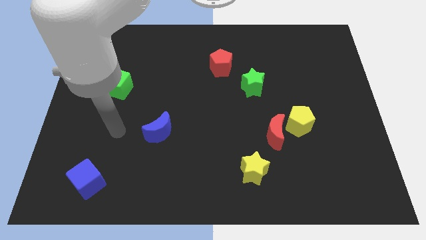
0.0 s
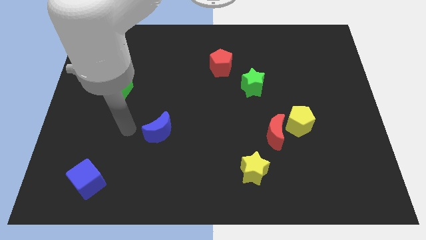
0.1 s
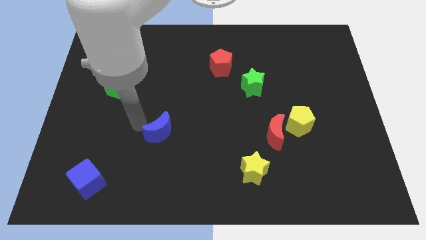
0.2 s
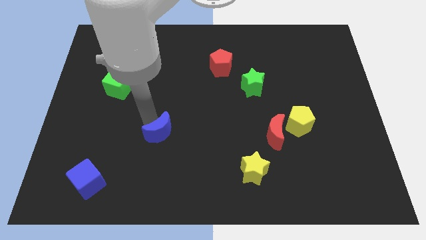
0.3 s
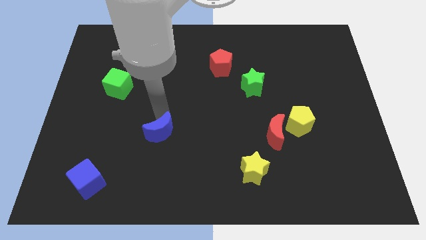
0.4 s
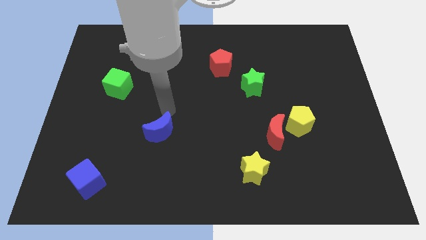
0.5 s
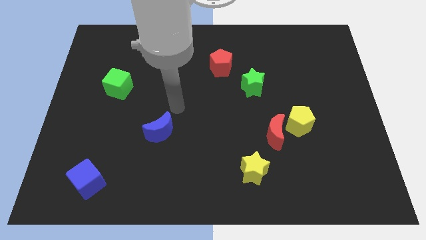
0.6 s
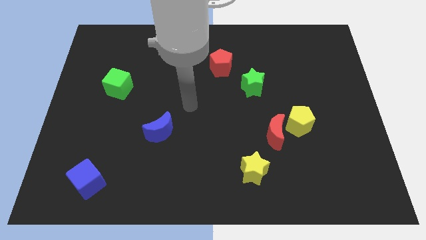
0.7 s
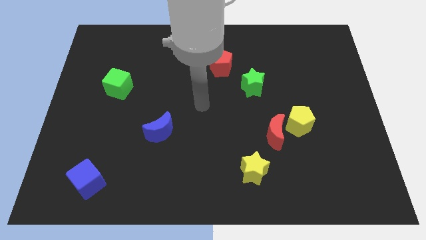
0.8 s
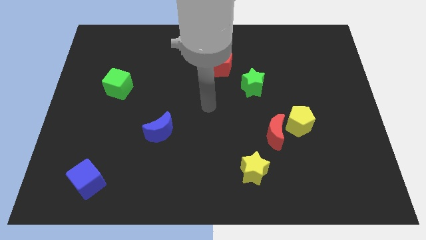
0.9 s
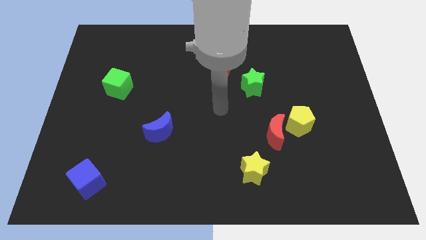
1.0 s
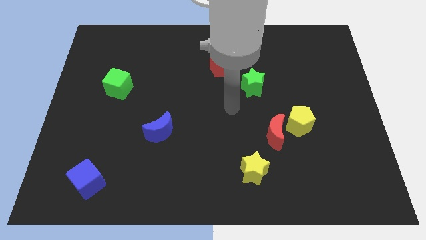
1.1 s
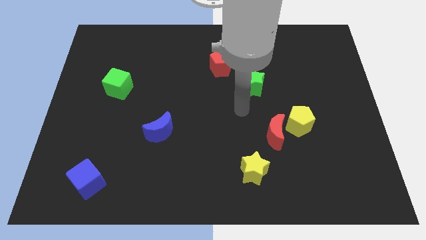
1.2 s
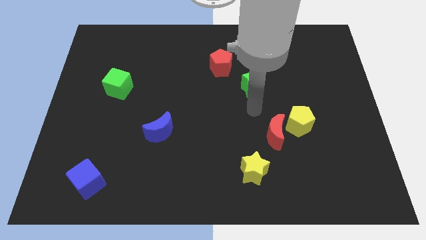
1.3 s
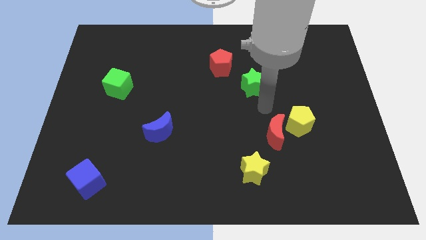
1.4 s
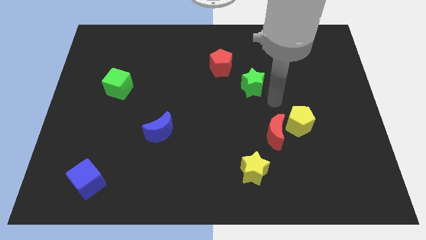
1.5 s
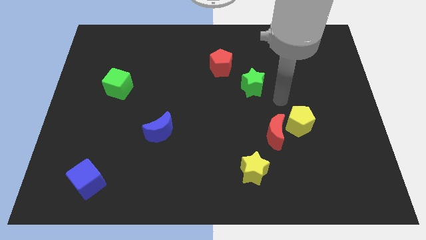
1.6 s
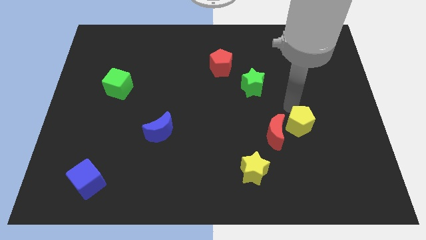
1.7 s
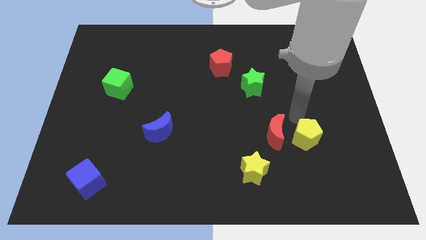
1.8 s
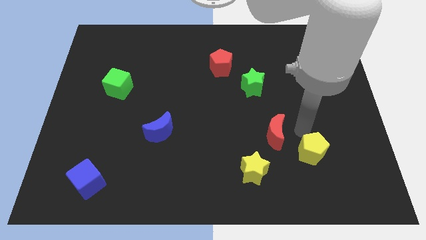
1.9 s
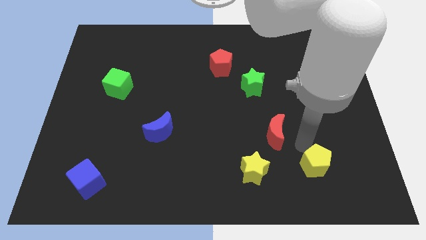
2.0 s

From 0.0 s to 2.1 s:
move the red moon away from the yellow pentagon

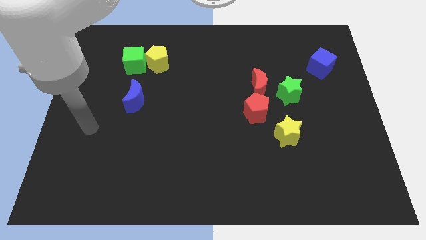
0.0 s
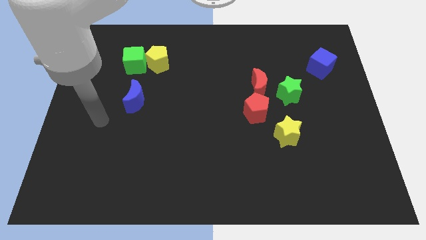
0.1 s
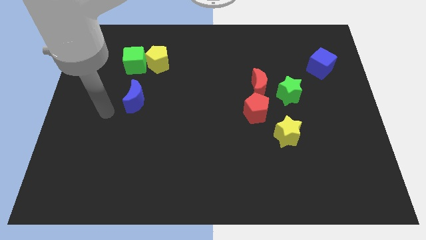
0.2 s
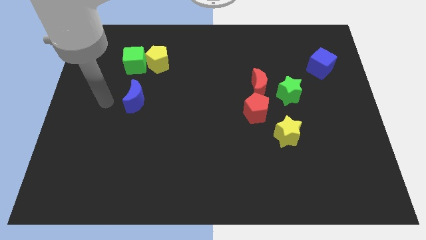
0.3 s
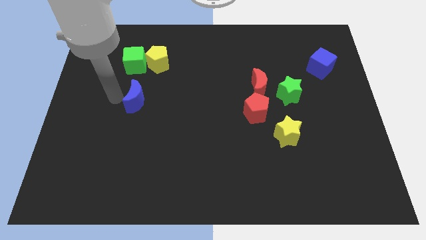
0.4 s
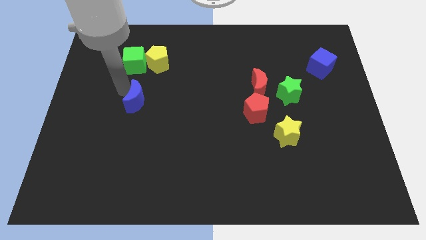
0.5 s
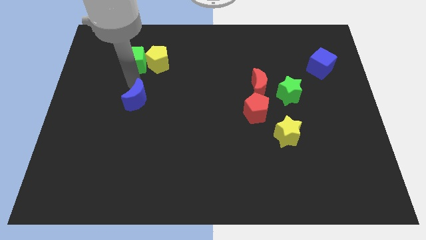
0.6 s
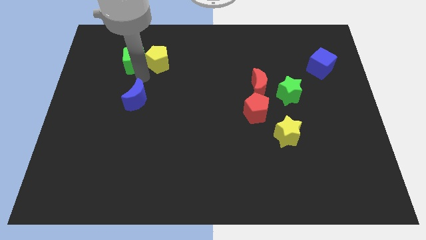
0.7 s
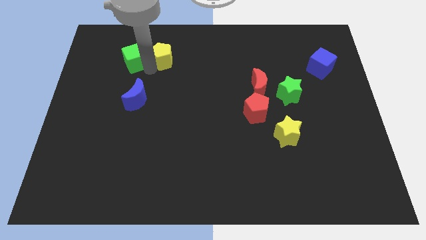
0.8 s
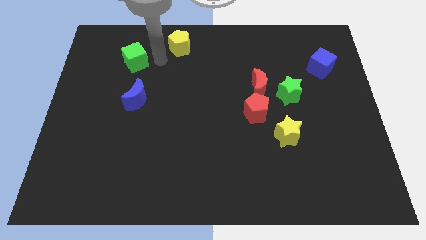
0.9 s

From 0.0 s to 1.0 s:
pull the green cube apart from the yellow pentagon

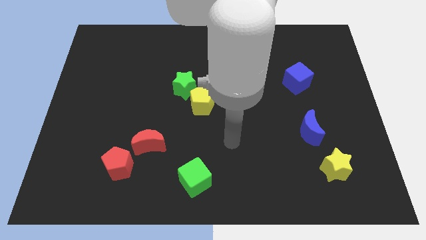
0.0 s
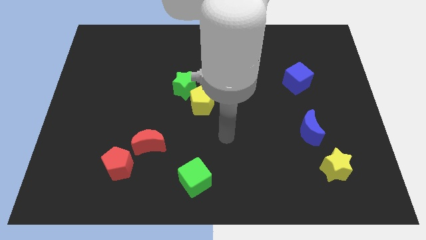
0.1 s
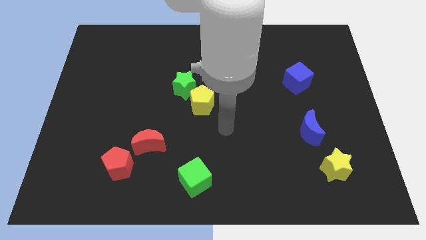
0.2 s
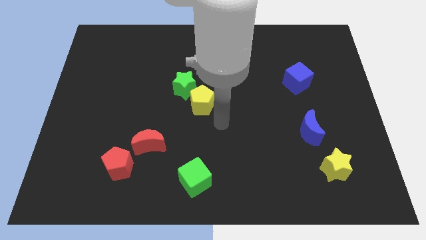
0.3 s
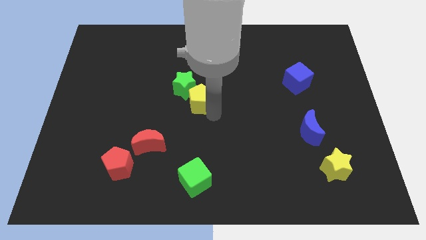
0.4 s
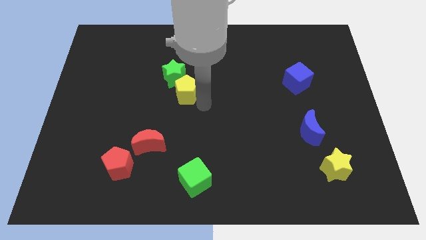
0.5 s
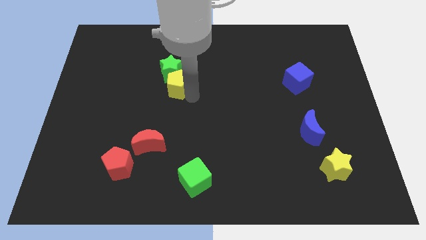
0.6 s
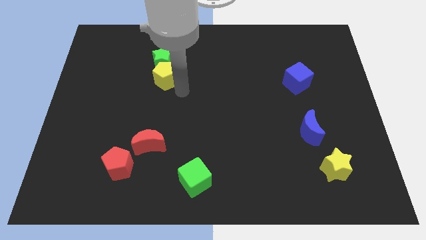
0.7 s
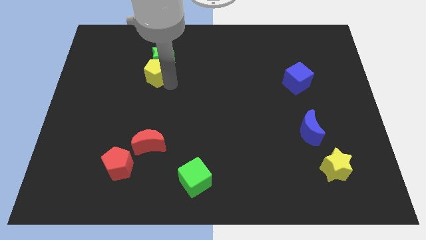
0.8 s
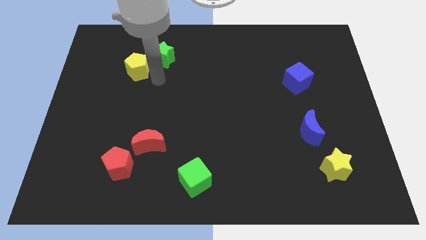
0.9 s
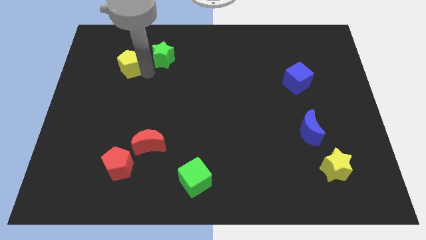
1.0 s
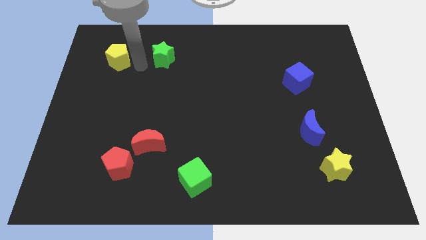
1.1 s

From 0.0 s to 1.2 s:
separate the green star from the yellow pentagon

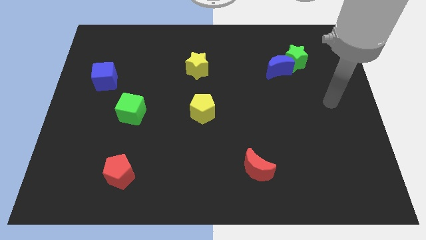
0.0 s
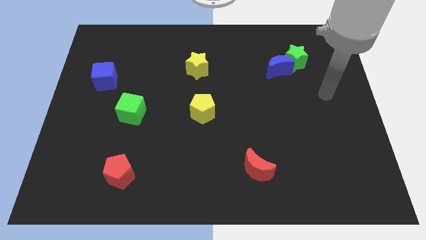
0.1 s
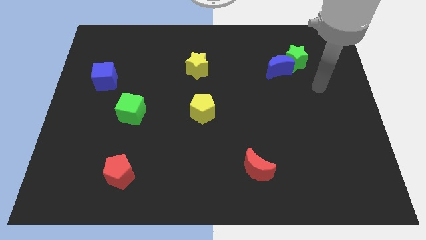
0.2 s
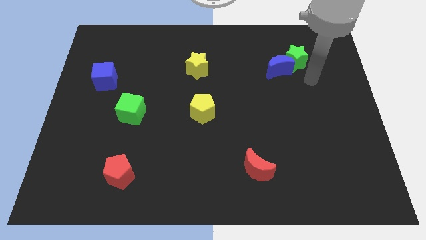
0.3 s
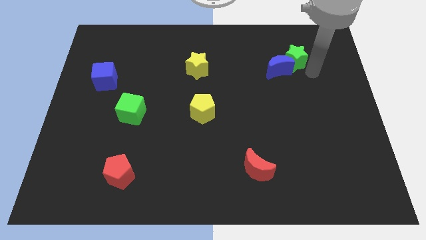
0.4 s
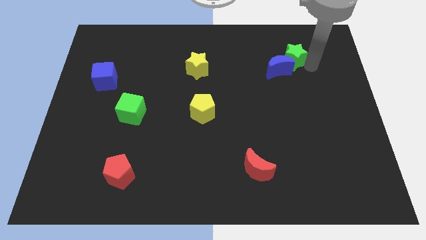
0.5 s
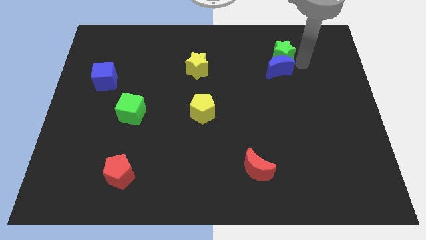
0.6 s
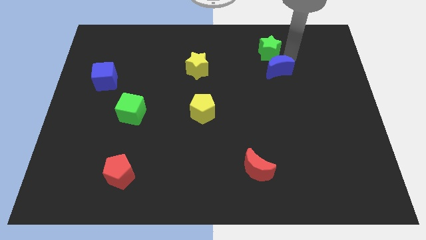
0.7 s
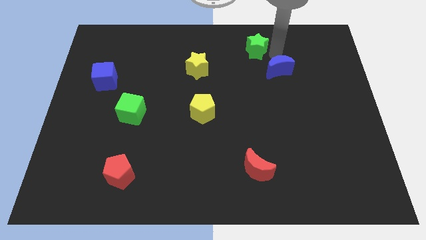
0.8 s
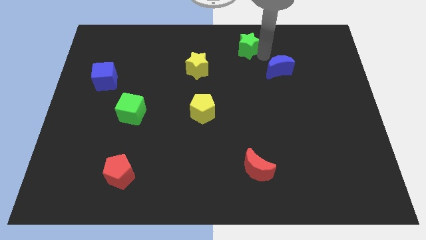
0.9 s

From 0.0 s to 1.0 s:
pull the blue moon apart from the green star

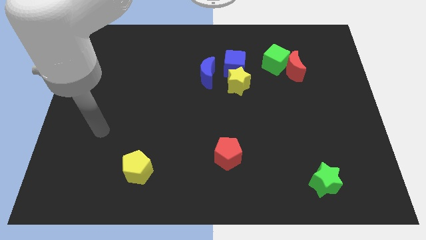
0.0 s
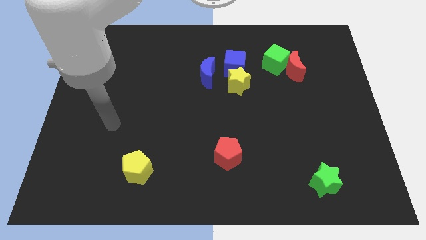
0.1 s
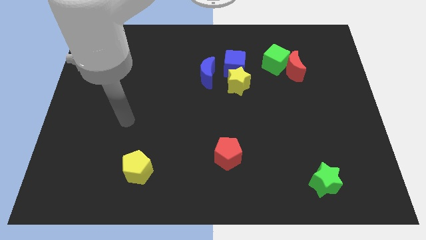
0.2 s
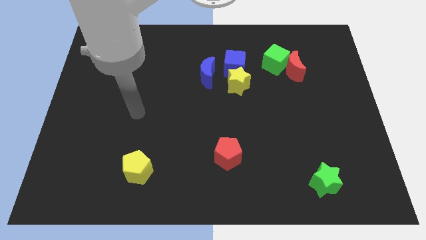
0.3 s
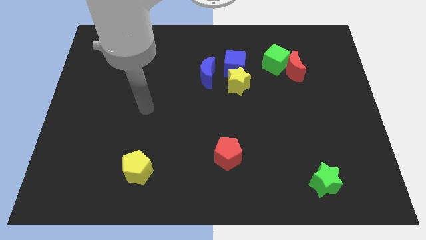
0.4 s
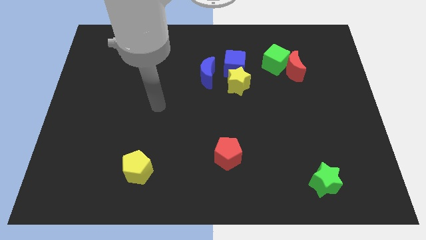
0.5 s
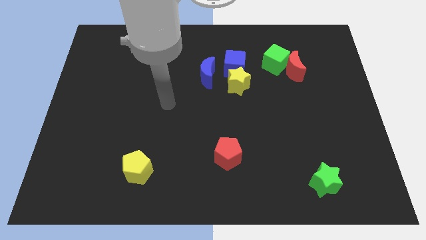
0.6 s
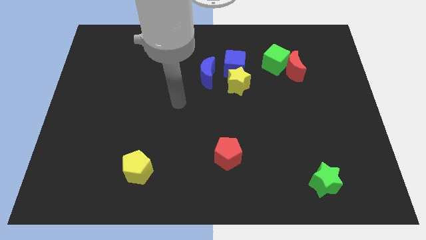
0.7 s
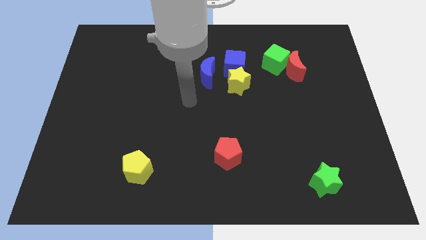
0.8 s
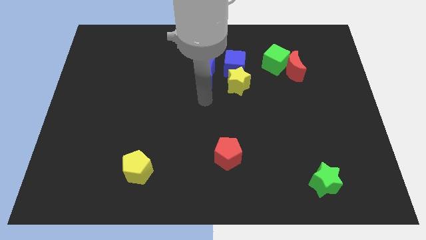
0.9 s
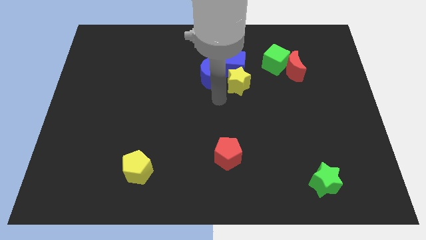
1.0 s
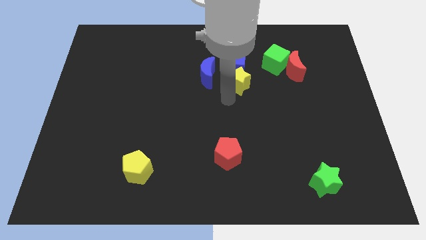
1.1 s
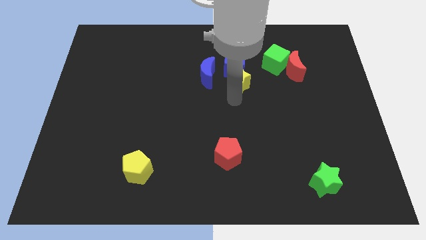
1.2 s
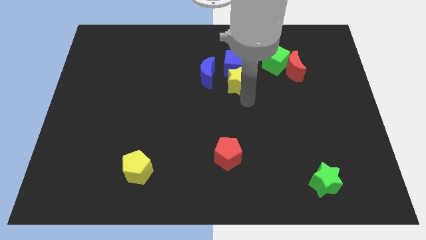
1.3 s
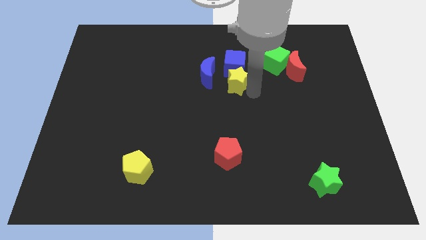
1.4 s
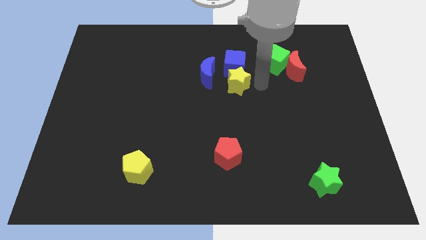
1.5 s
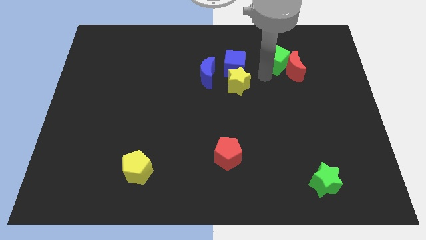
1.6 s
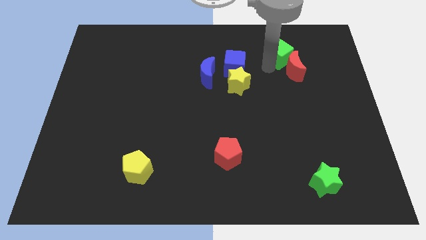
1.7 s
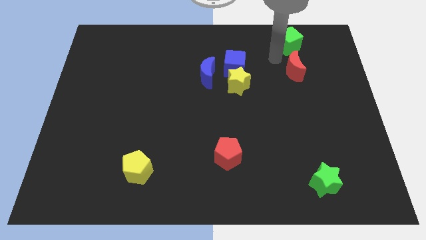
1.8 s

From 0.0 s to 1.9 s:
move the red moon away from the green cube

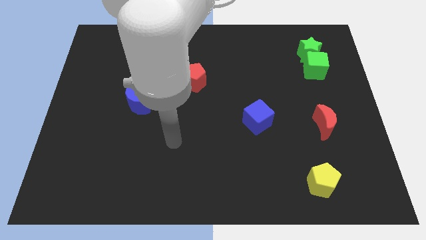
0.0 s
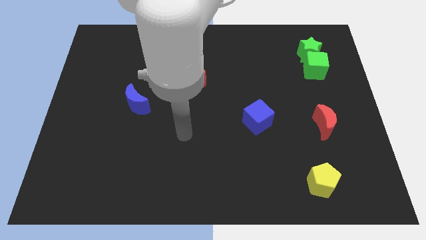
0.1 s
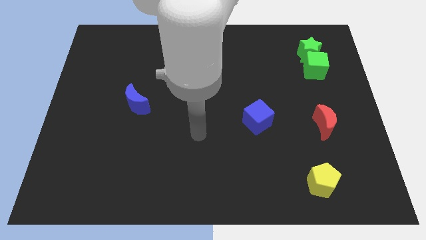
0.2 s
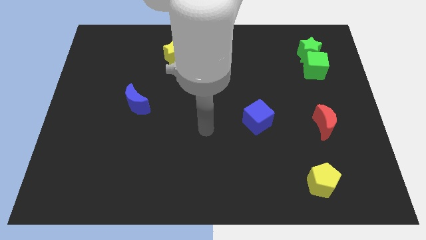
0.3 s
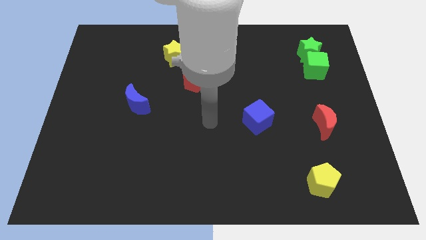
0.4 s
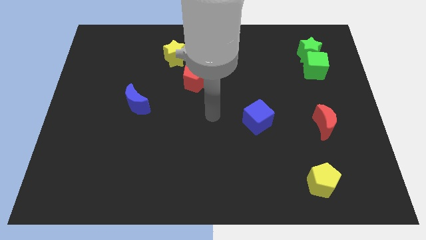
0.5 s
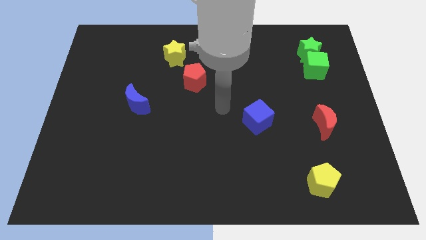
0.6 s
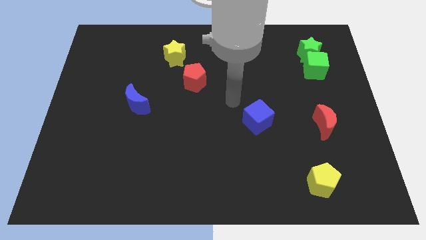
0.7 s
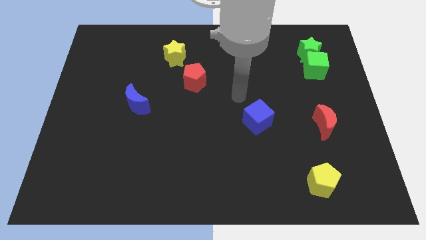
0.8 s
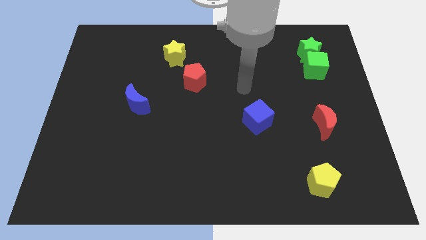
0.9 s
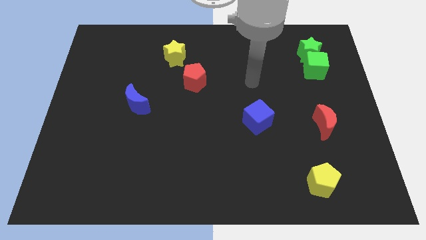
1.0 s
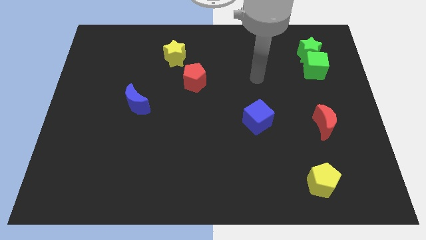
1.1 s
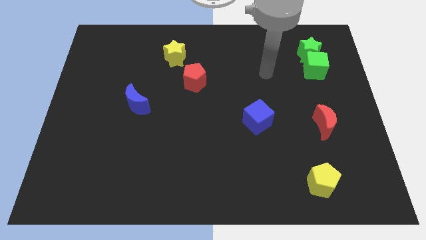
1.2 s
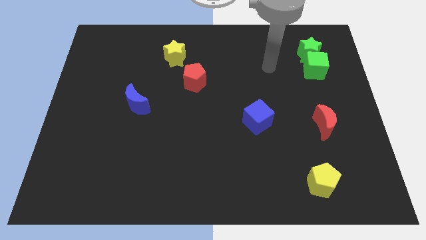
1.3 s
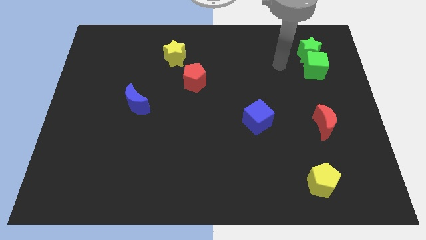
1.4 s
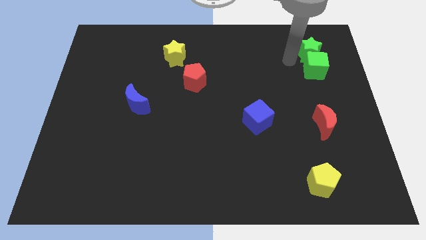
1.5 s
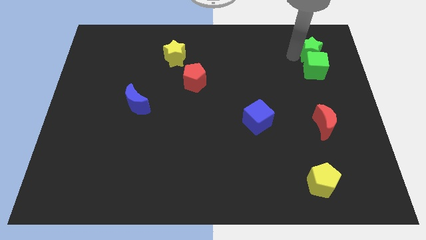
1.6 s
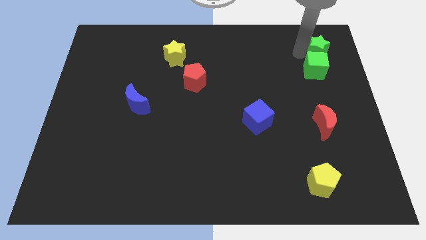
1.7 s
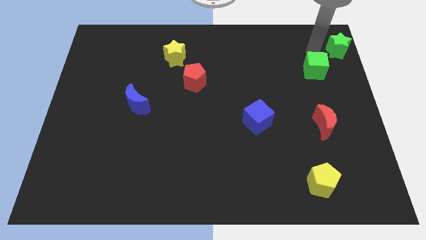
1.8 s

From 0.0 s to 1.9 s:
separate the green cube from the green star

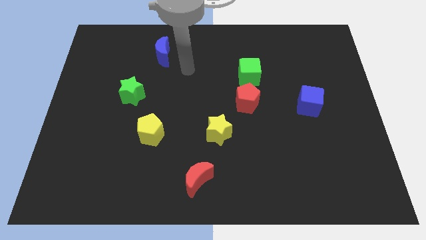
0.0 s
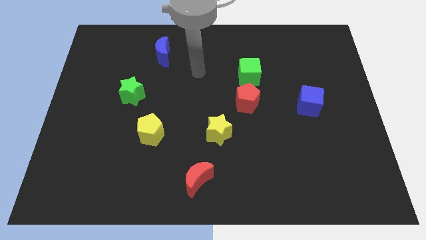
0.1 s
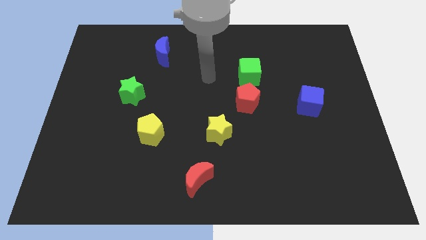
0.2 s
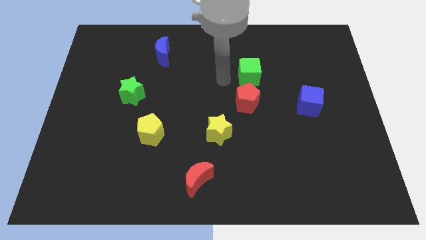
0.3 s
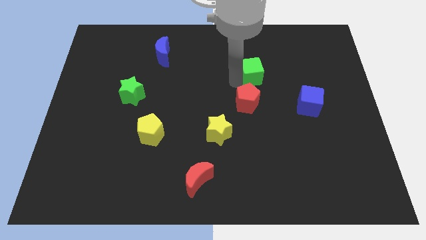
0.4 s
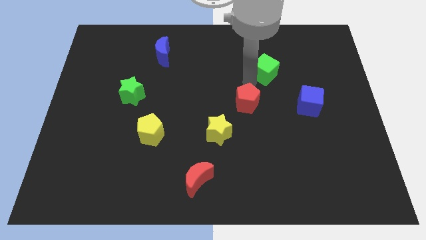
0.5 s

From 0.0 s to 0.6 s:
move the red pentagon away from the green cube
